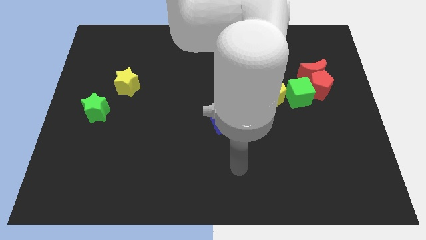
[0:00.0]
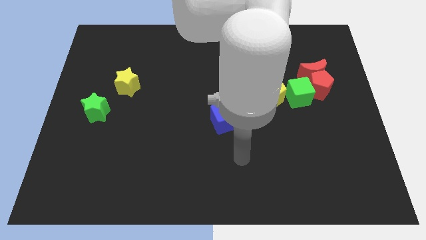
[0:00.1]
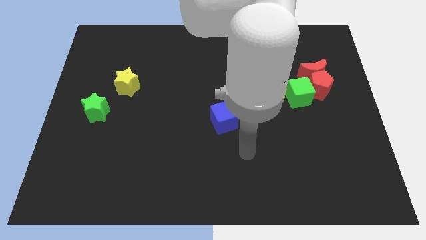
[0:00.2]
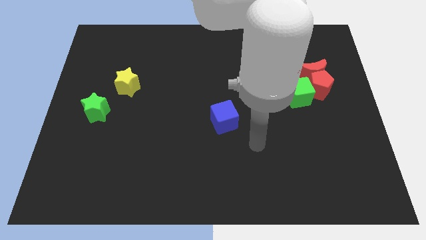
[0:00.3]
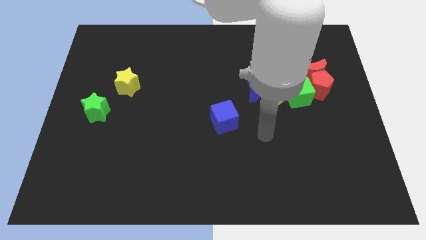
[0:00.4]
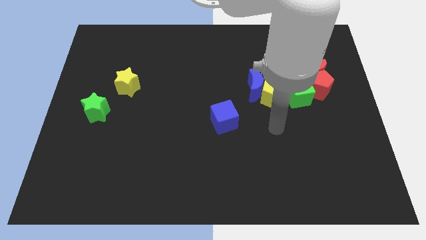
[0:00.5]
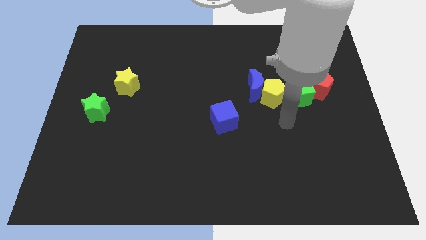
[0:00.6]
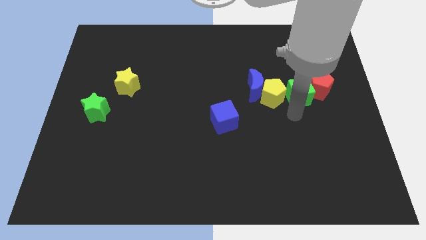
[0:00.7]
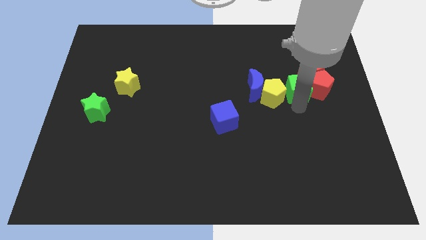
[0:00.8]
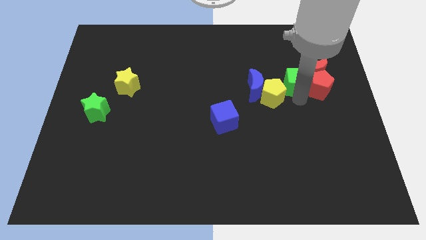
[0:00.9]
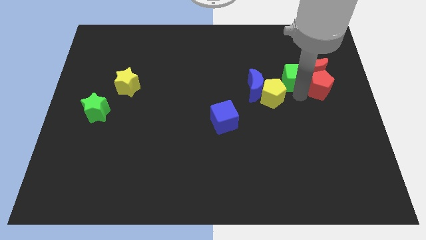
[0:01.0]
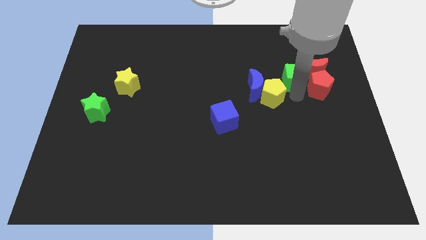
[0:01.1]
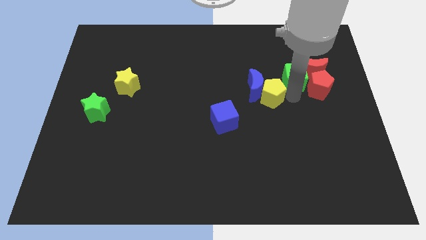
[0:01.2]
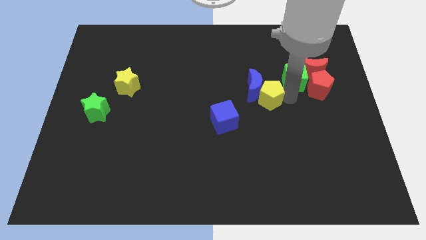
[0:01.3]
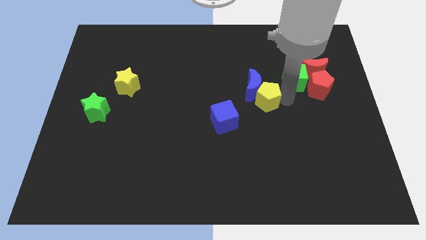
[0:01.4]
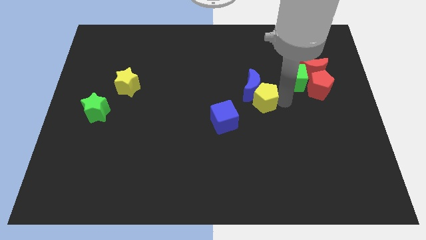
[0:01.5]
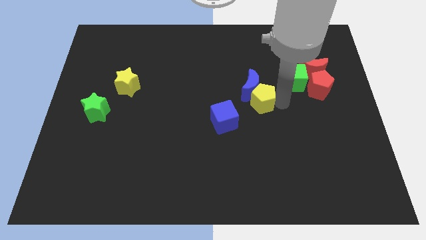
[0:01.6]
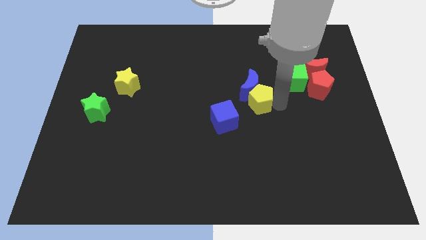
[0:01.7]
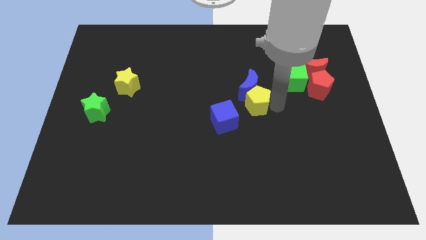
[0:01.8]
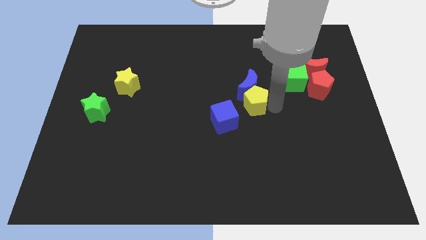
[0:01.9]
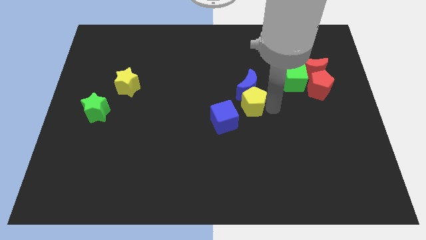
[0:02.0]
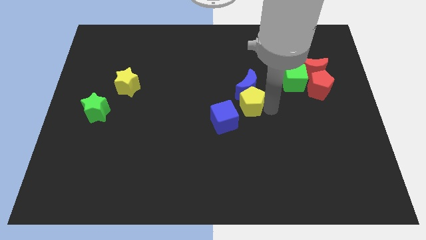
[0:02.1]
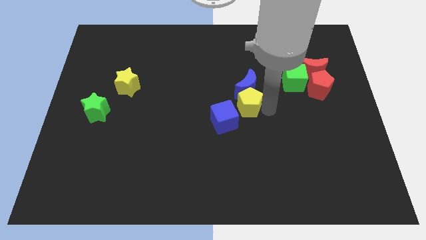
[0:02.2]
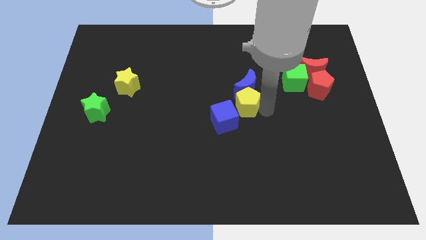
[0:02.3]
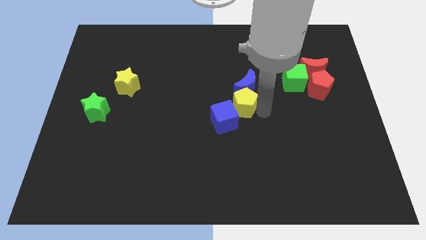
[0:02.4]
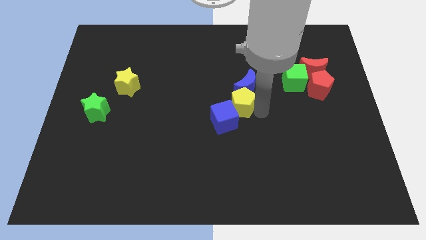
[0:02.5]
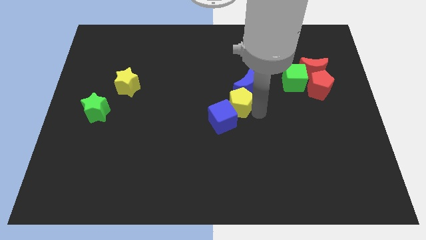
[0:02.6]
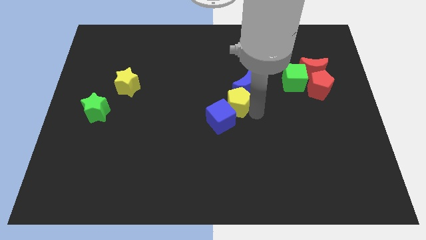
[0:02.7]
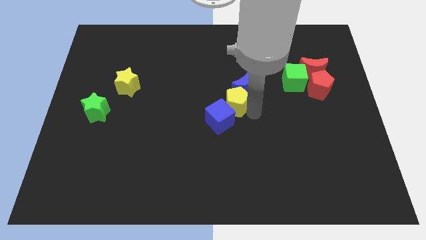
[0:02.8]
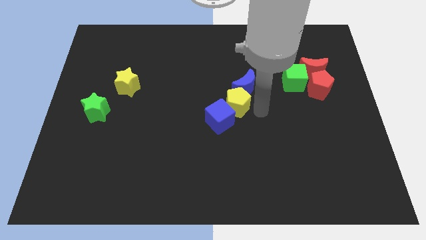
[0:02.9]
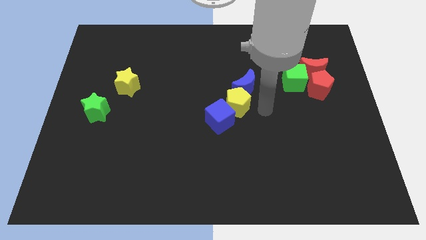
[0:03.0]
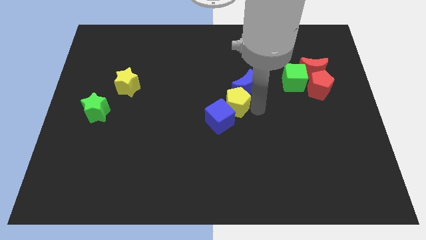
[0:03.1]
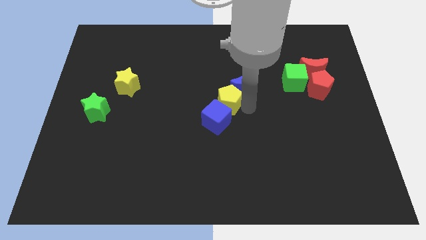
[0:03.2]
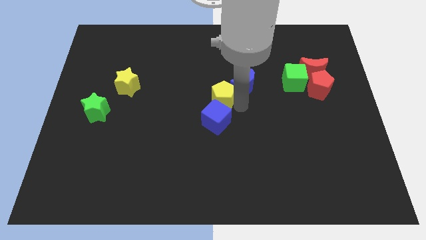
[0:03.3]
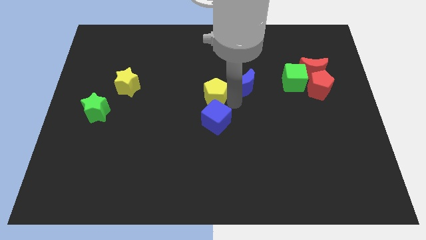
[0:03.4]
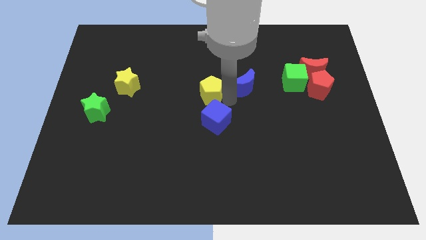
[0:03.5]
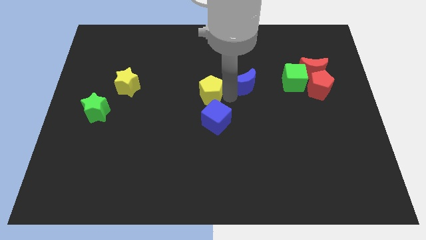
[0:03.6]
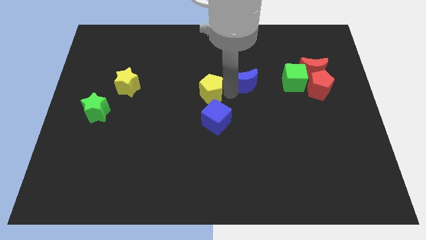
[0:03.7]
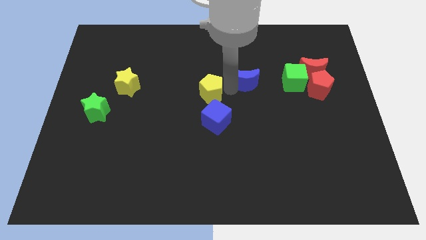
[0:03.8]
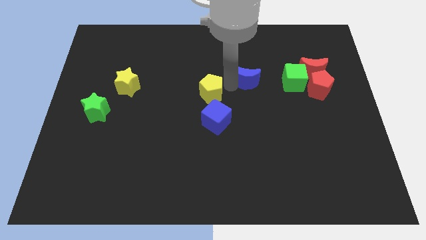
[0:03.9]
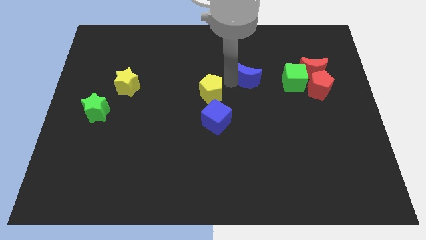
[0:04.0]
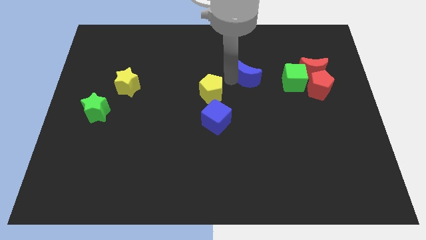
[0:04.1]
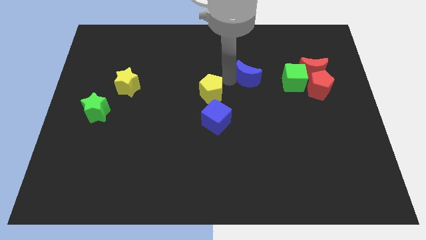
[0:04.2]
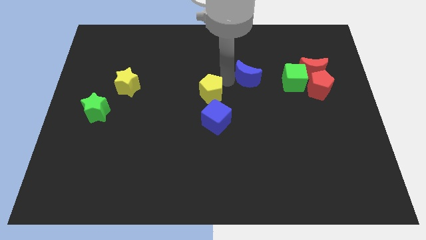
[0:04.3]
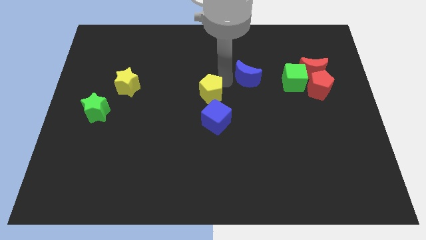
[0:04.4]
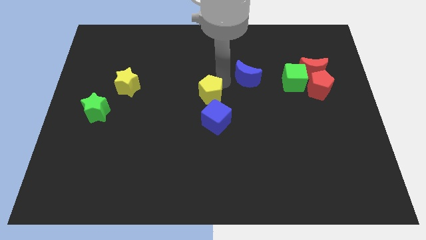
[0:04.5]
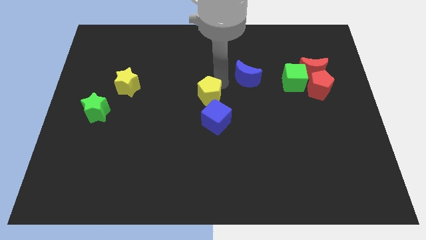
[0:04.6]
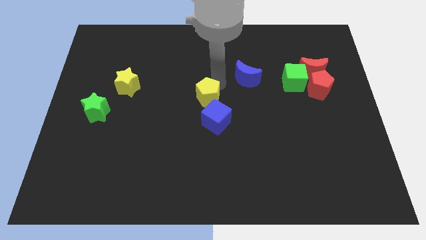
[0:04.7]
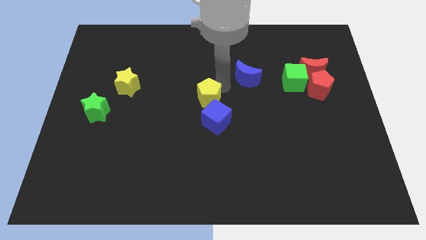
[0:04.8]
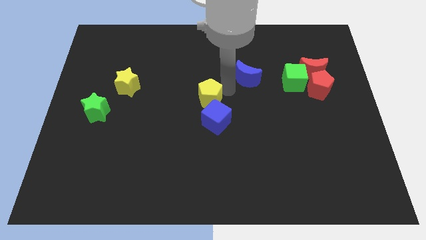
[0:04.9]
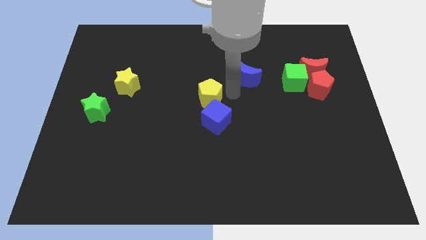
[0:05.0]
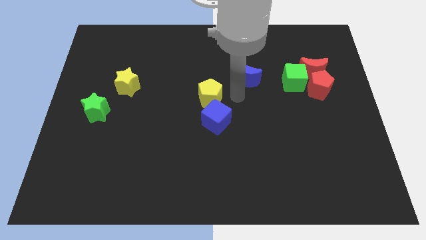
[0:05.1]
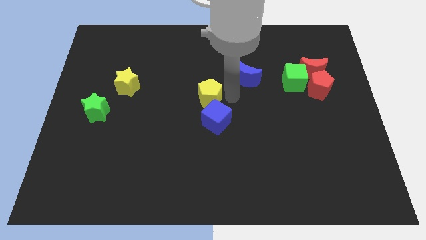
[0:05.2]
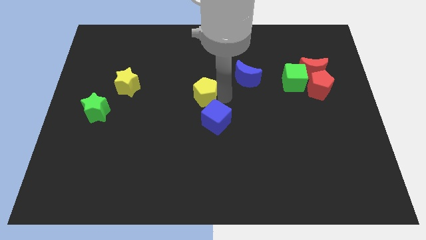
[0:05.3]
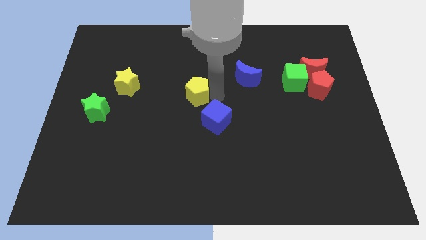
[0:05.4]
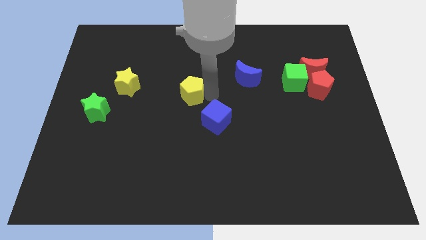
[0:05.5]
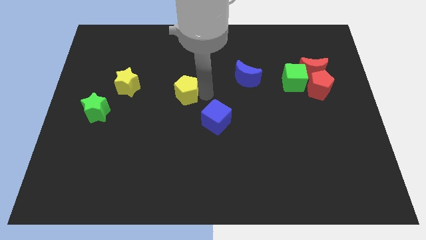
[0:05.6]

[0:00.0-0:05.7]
push the yellow pentagon left

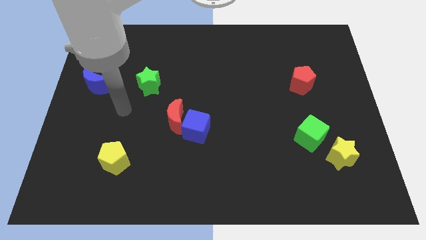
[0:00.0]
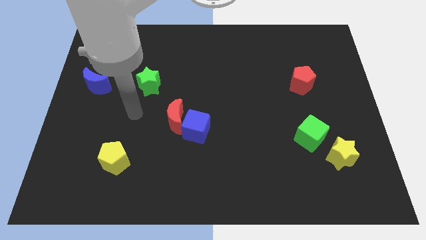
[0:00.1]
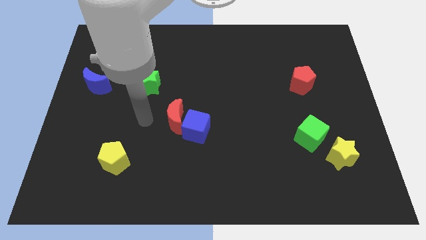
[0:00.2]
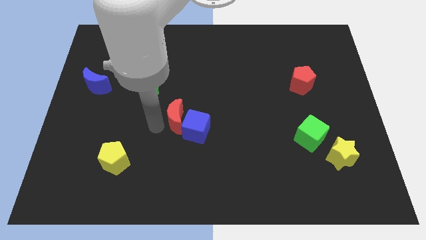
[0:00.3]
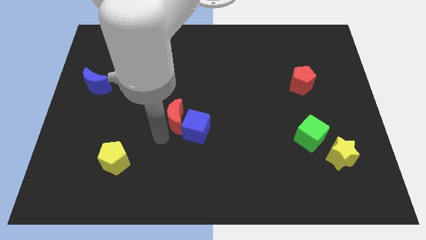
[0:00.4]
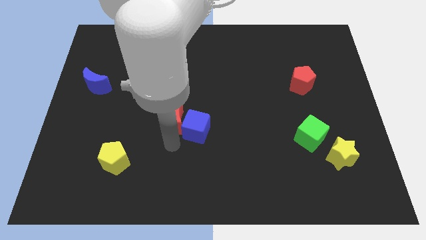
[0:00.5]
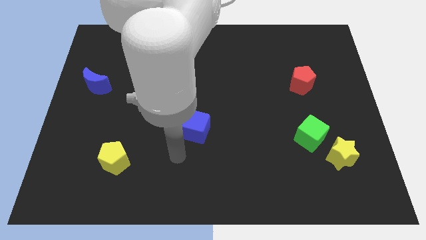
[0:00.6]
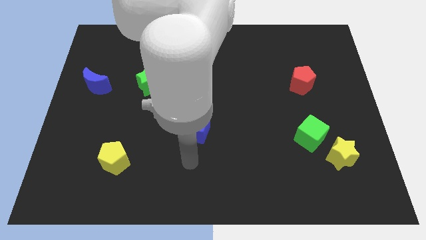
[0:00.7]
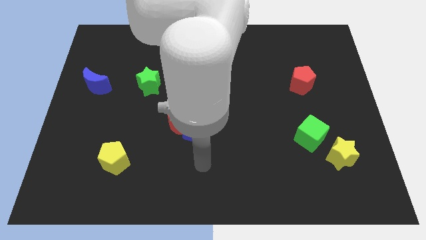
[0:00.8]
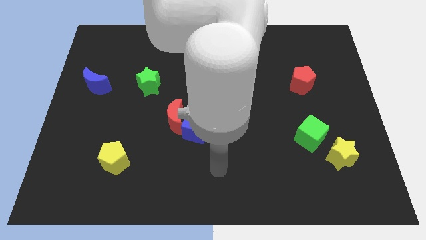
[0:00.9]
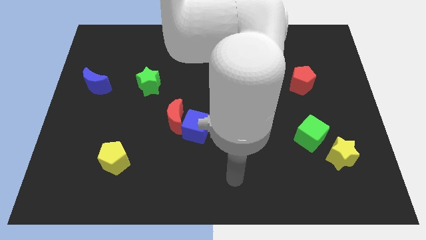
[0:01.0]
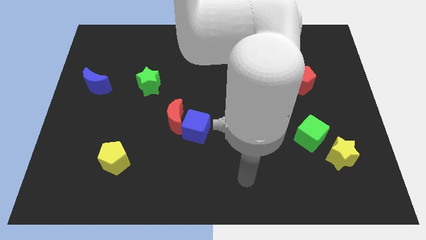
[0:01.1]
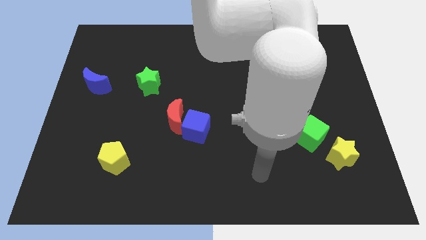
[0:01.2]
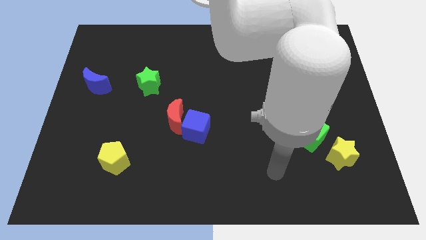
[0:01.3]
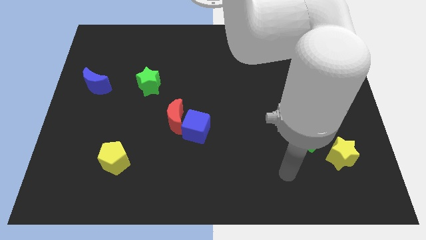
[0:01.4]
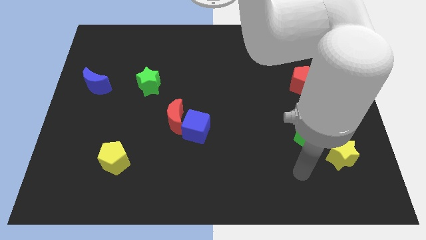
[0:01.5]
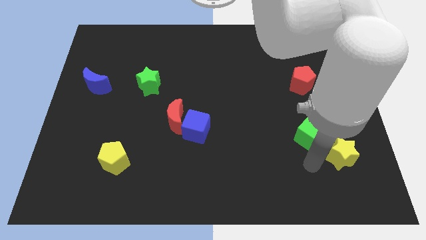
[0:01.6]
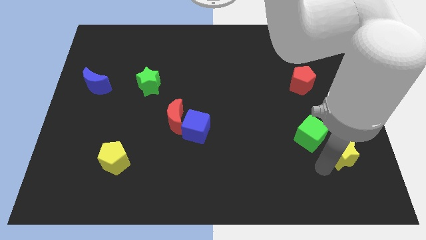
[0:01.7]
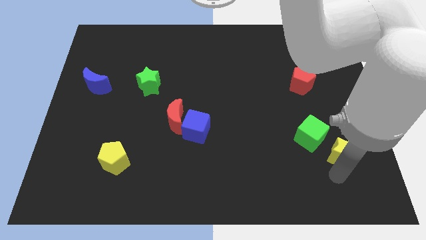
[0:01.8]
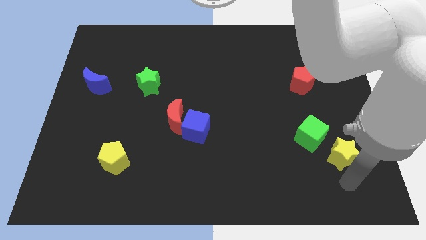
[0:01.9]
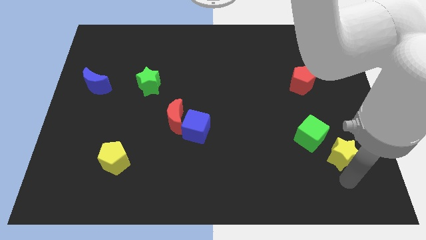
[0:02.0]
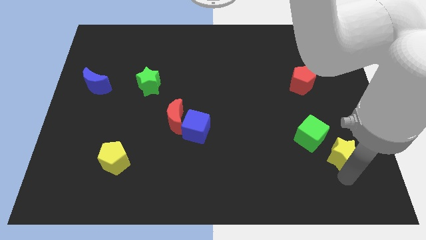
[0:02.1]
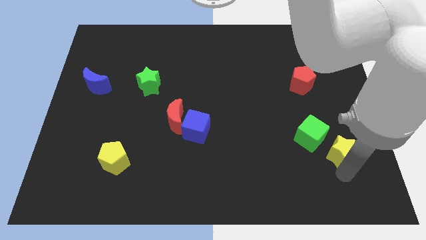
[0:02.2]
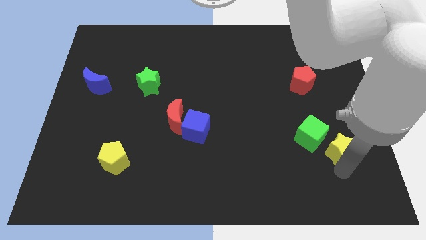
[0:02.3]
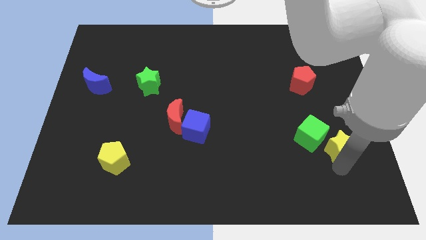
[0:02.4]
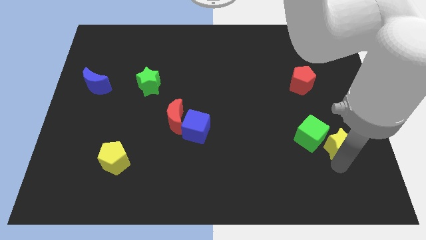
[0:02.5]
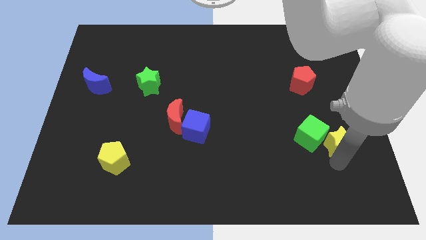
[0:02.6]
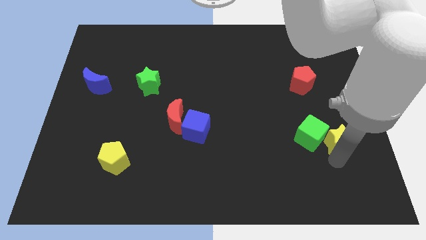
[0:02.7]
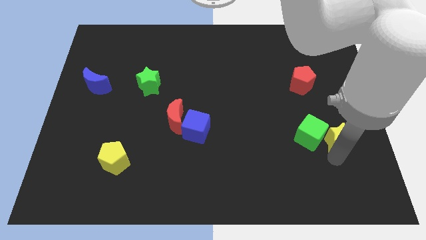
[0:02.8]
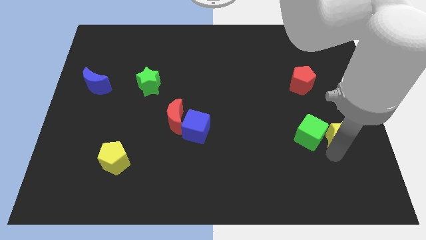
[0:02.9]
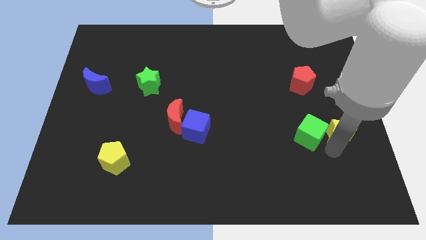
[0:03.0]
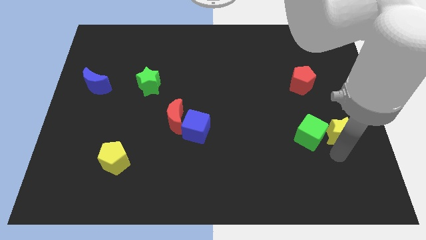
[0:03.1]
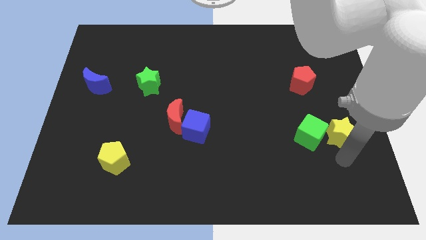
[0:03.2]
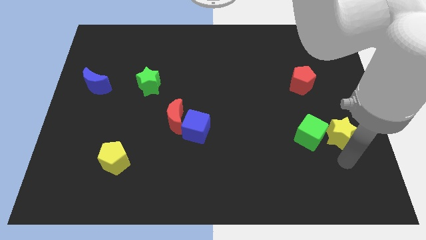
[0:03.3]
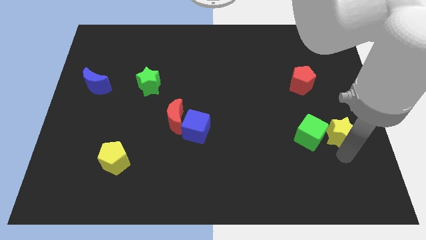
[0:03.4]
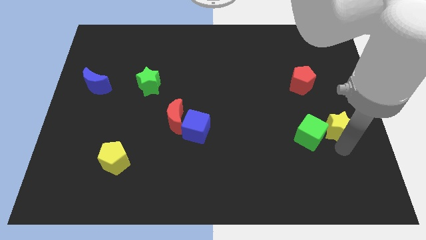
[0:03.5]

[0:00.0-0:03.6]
slightly slide the yellow star upwards
